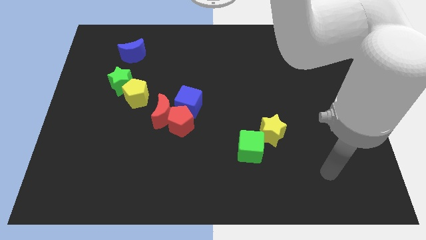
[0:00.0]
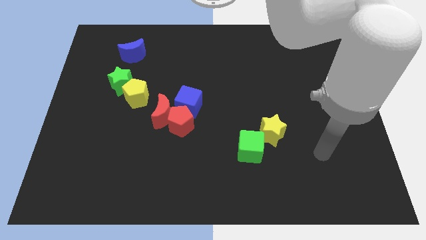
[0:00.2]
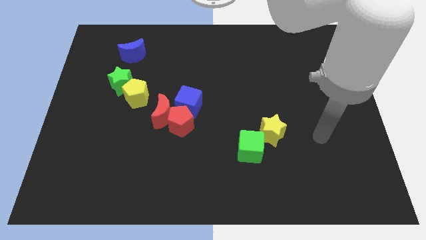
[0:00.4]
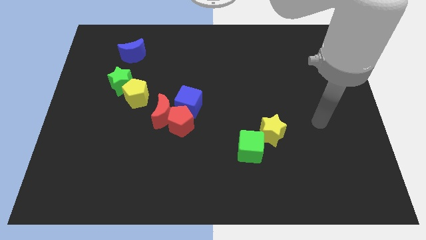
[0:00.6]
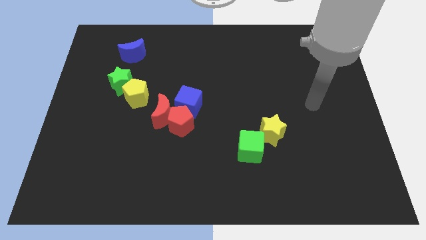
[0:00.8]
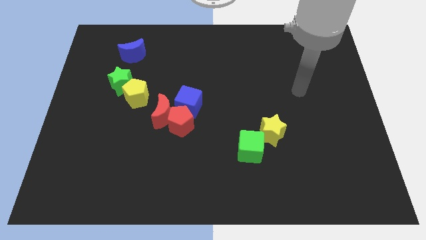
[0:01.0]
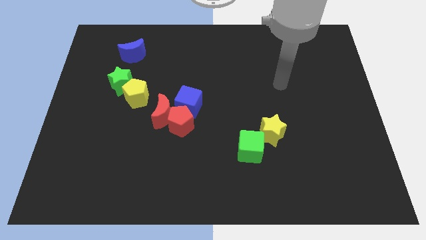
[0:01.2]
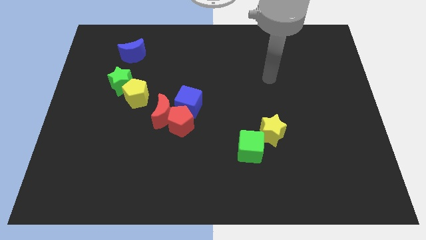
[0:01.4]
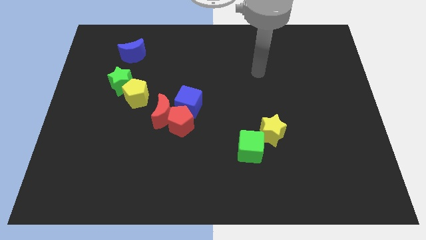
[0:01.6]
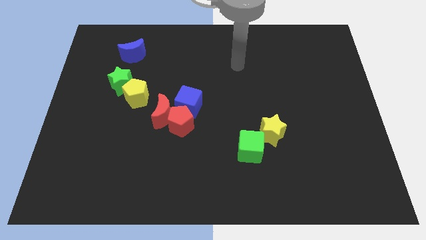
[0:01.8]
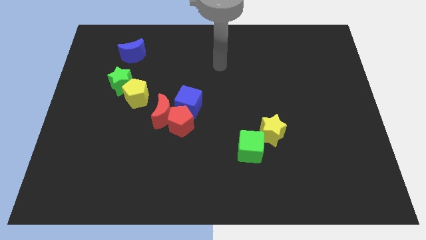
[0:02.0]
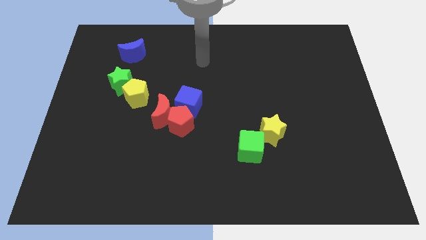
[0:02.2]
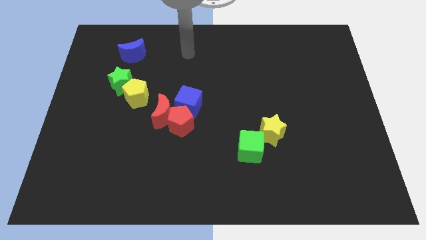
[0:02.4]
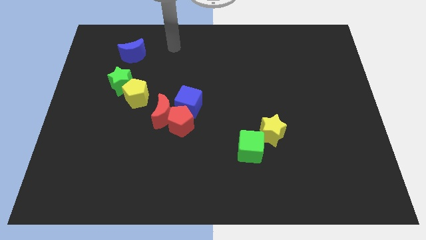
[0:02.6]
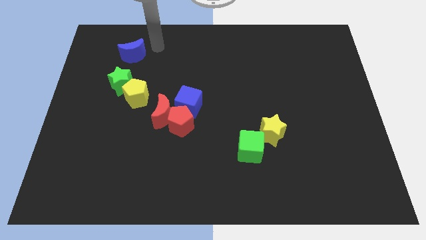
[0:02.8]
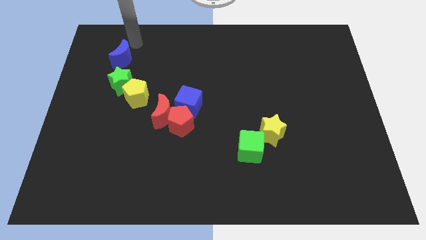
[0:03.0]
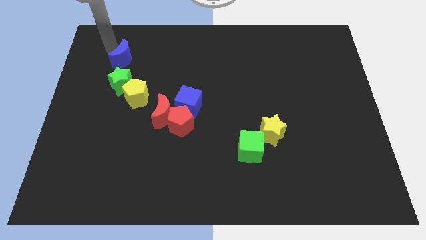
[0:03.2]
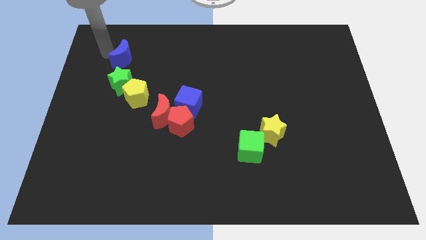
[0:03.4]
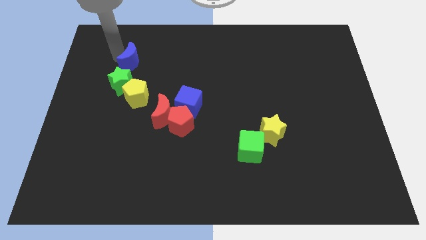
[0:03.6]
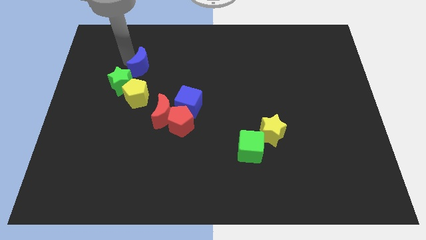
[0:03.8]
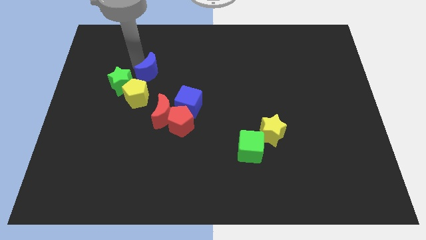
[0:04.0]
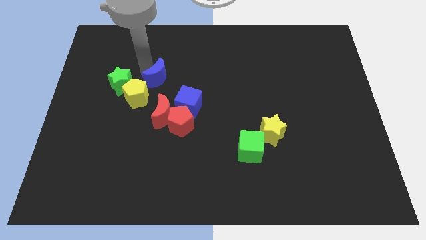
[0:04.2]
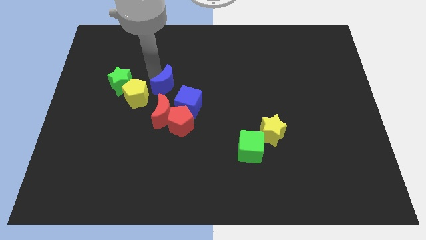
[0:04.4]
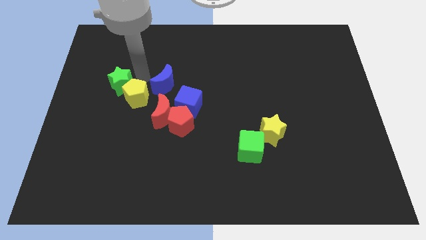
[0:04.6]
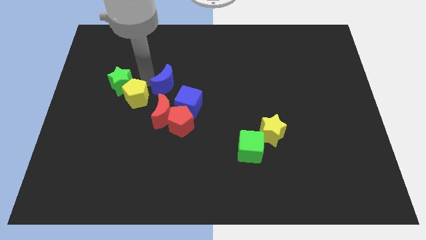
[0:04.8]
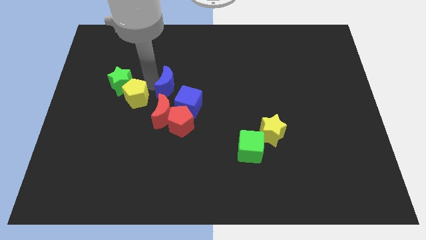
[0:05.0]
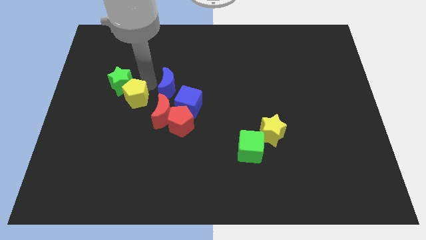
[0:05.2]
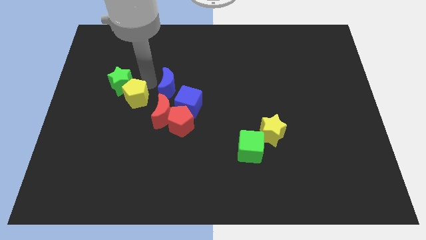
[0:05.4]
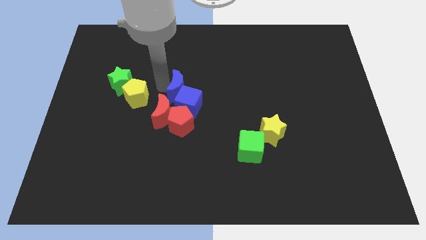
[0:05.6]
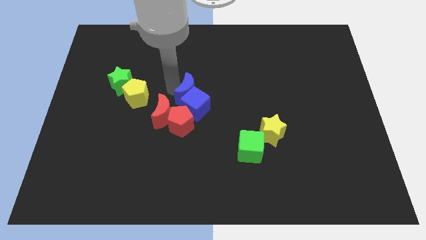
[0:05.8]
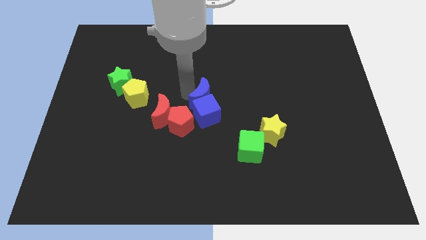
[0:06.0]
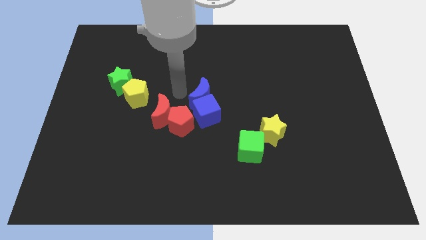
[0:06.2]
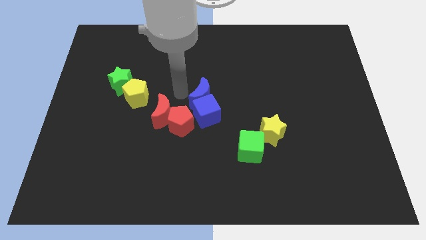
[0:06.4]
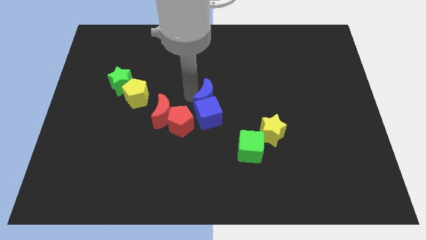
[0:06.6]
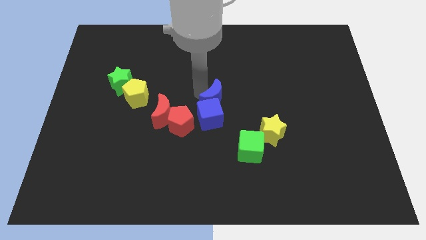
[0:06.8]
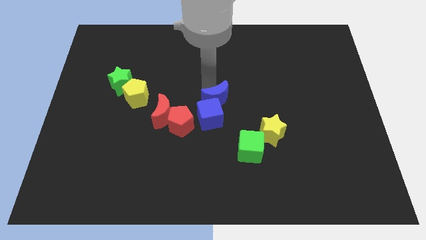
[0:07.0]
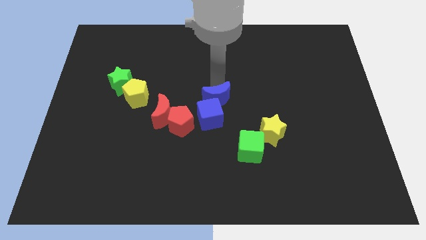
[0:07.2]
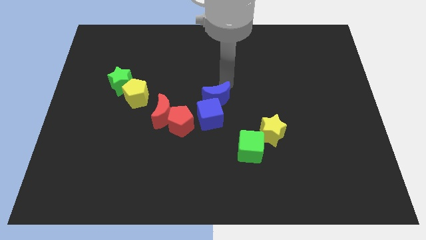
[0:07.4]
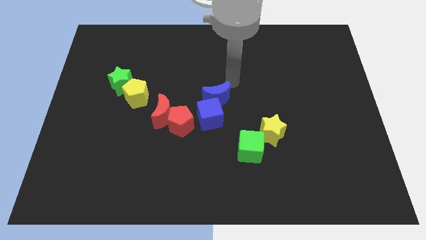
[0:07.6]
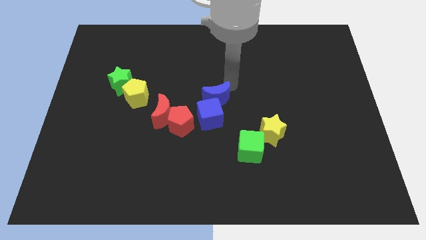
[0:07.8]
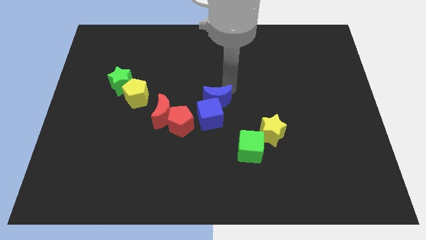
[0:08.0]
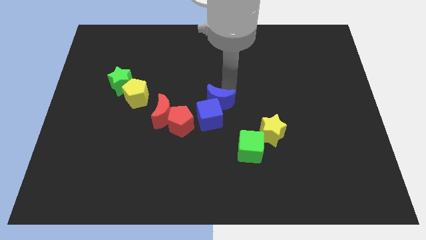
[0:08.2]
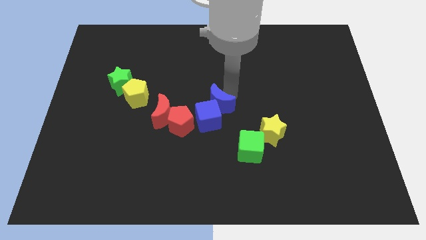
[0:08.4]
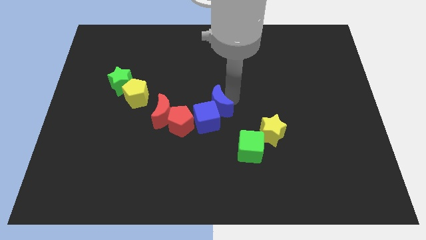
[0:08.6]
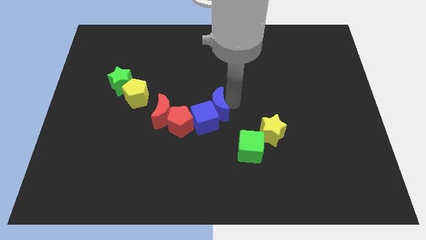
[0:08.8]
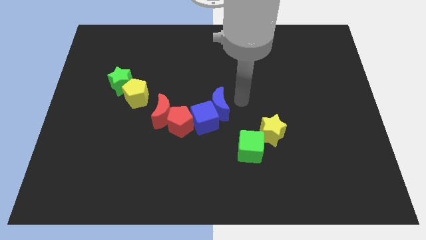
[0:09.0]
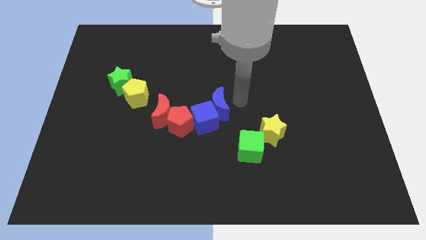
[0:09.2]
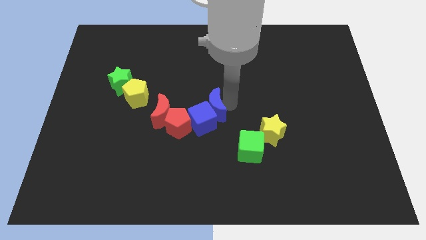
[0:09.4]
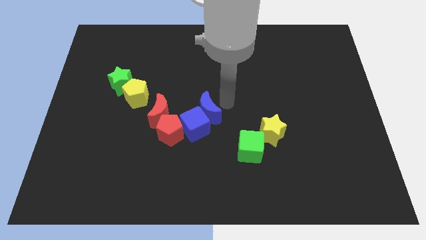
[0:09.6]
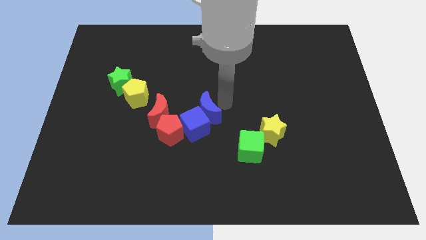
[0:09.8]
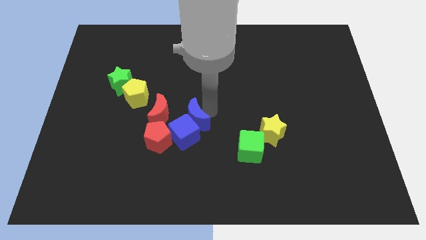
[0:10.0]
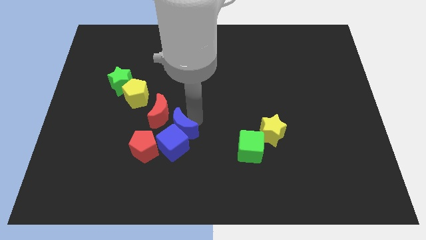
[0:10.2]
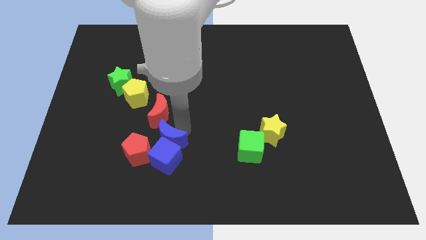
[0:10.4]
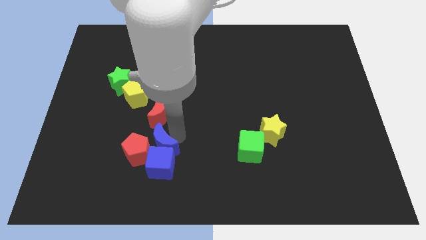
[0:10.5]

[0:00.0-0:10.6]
push the blue moon to the red pentagon

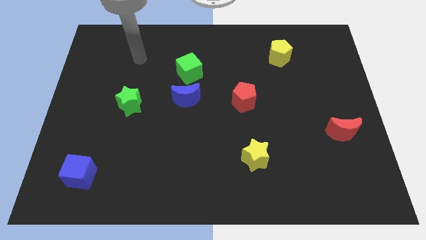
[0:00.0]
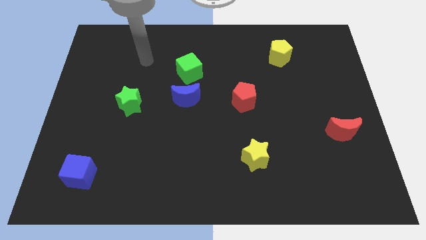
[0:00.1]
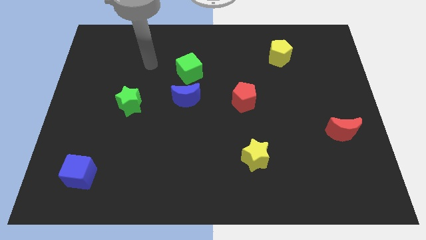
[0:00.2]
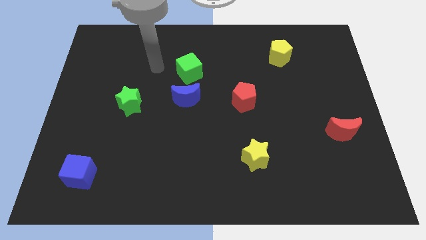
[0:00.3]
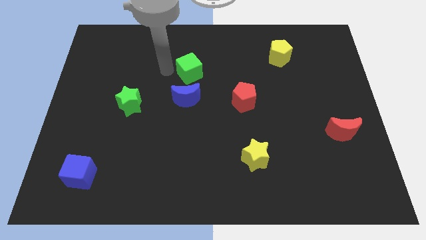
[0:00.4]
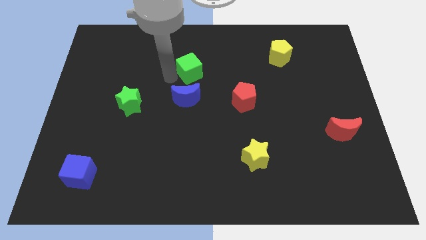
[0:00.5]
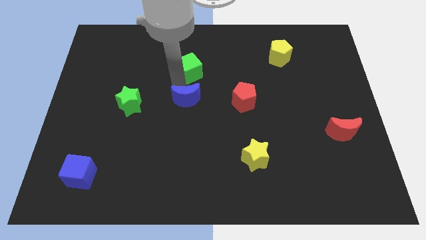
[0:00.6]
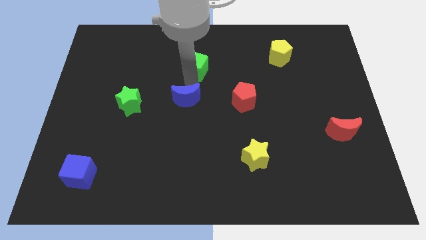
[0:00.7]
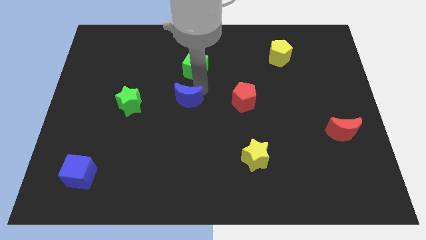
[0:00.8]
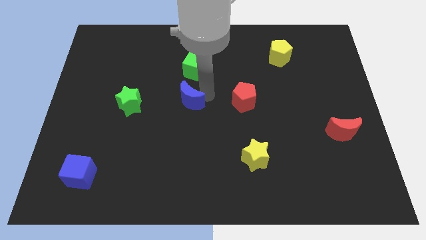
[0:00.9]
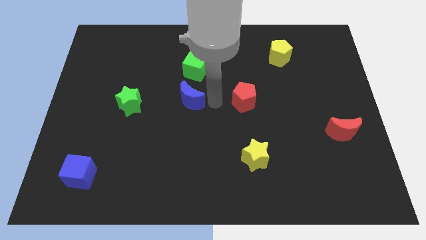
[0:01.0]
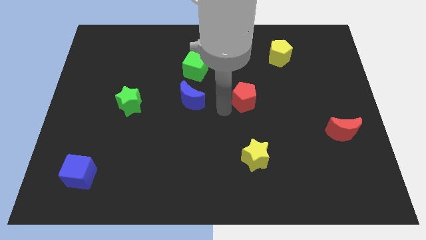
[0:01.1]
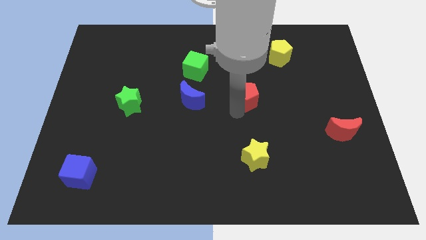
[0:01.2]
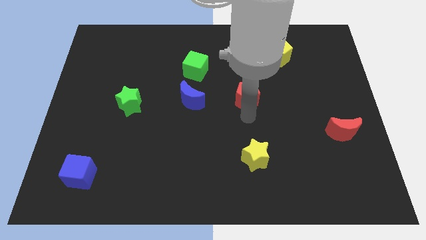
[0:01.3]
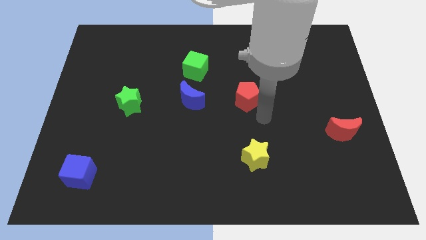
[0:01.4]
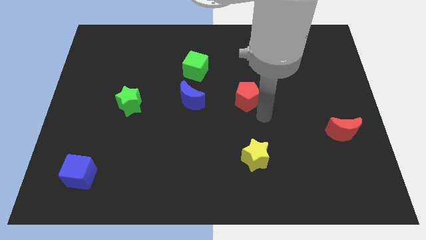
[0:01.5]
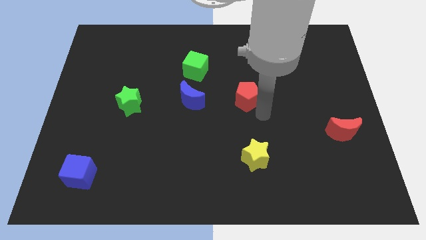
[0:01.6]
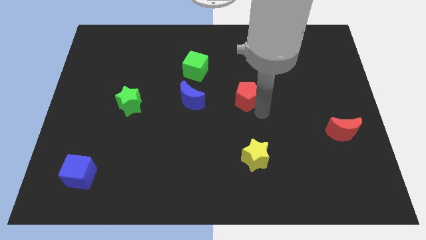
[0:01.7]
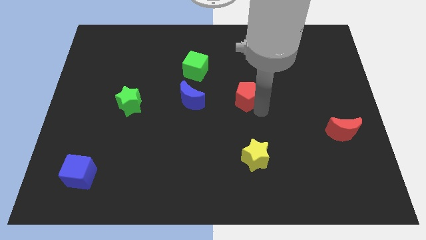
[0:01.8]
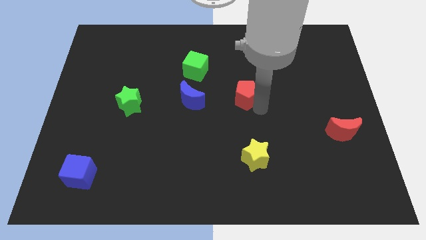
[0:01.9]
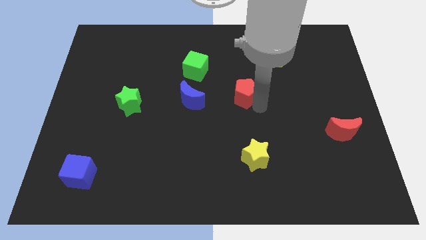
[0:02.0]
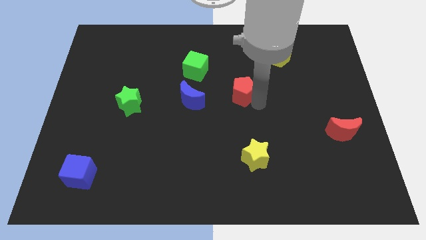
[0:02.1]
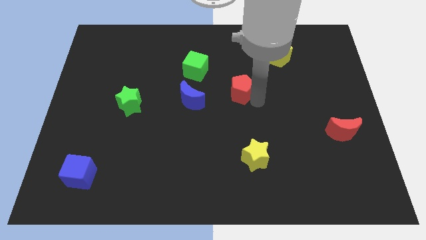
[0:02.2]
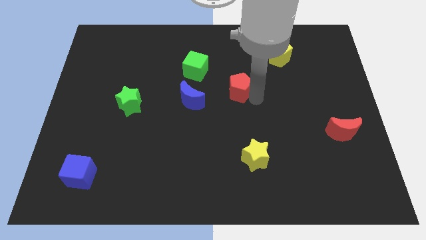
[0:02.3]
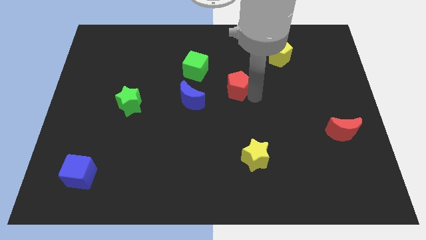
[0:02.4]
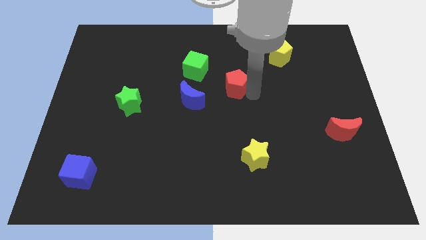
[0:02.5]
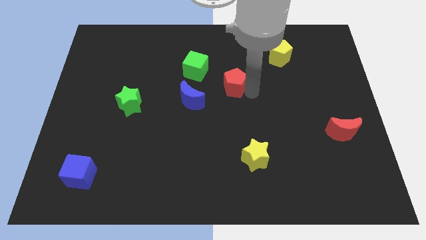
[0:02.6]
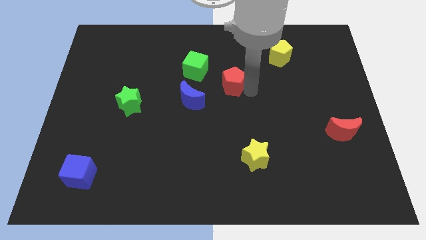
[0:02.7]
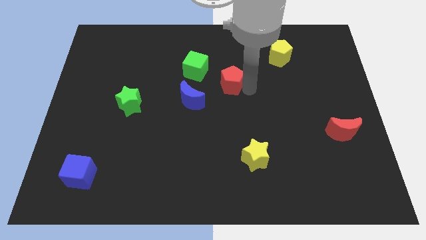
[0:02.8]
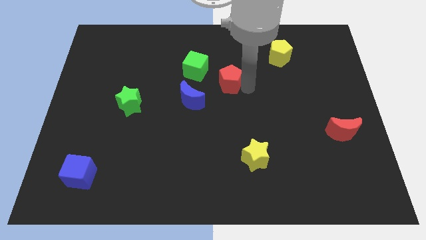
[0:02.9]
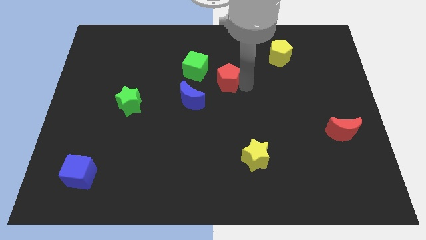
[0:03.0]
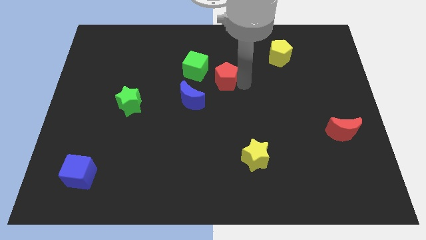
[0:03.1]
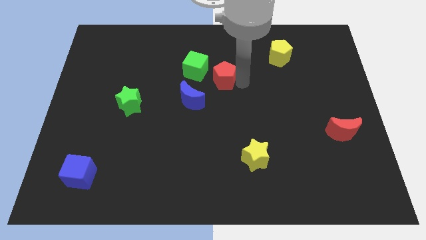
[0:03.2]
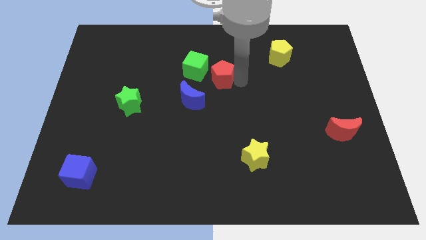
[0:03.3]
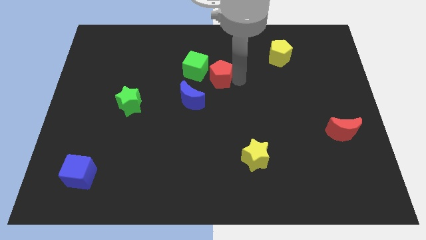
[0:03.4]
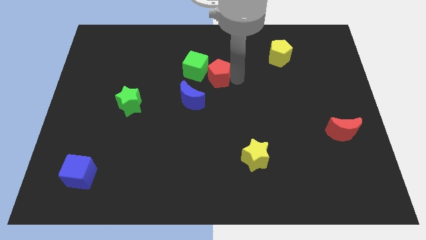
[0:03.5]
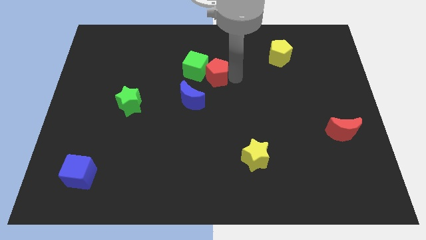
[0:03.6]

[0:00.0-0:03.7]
put the red pentagon towards the green cube
